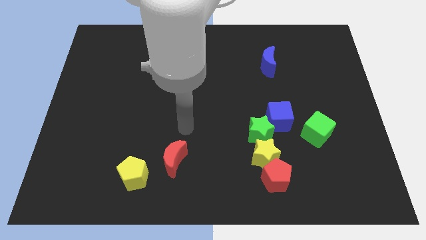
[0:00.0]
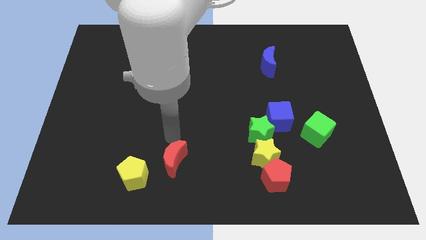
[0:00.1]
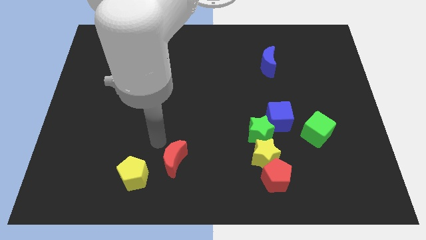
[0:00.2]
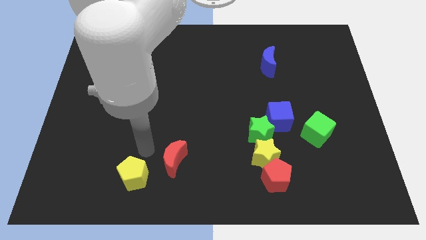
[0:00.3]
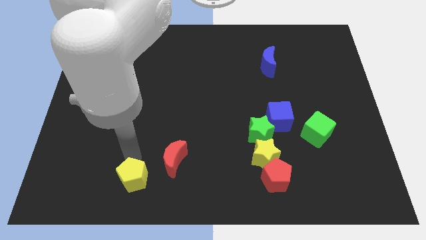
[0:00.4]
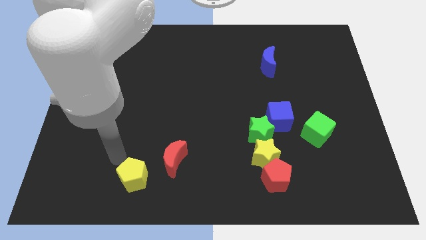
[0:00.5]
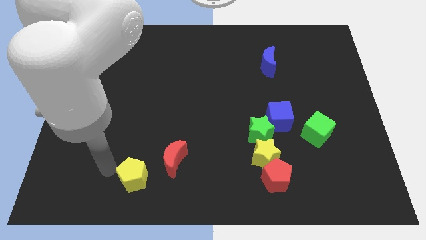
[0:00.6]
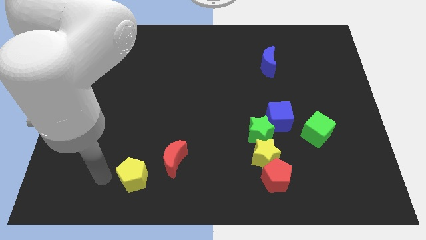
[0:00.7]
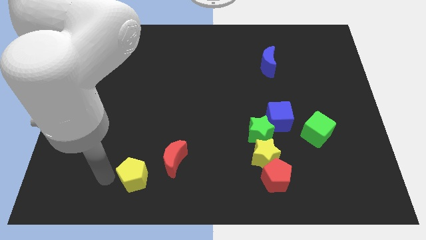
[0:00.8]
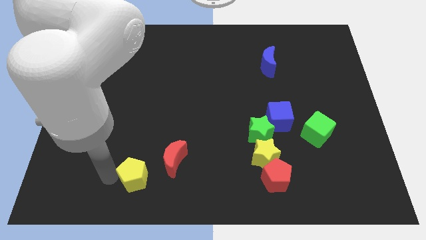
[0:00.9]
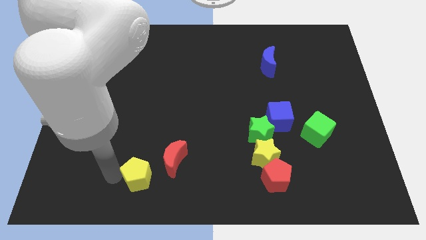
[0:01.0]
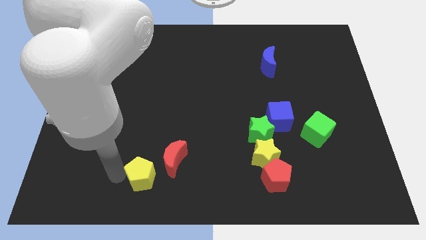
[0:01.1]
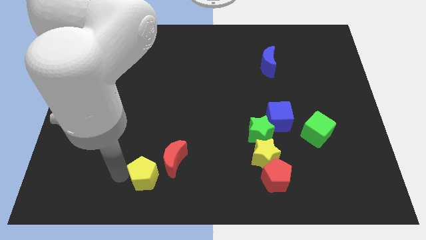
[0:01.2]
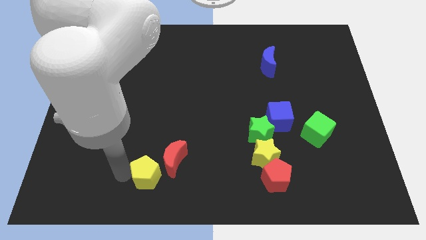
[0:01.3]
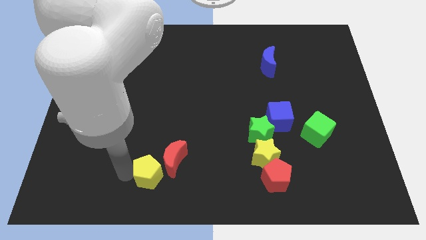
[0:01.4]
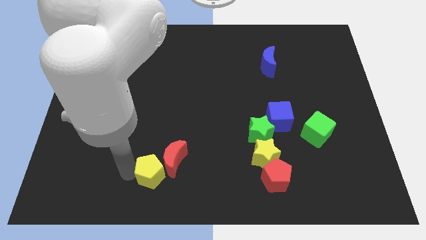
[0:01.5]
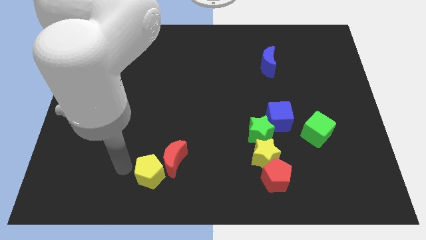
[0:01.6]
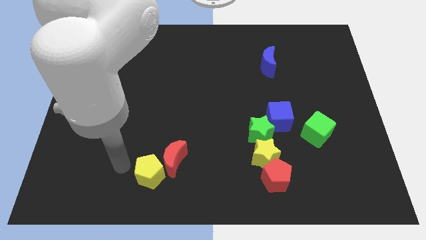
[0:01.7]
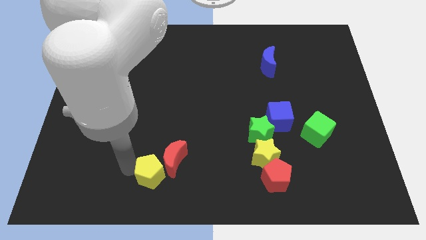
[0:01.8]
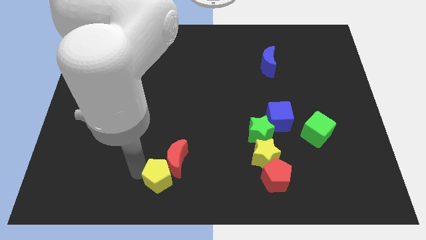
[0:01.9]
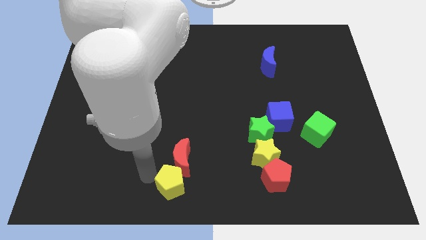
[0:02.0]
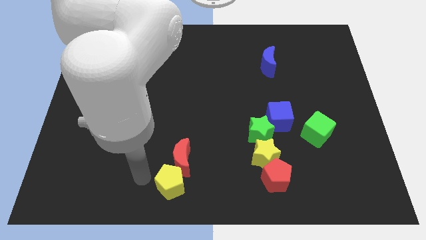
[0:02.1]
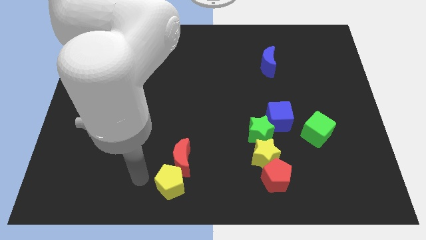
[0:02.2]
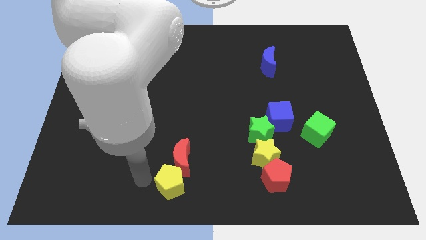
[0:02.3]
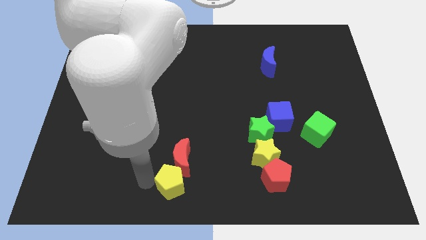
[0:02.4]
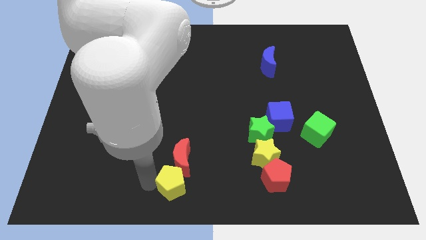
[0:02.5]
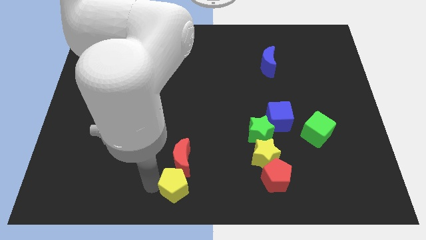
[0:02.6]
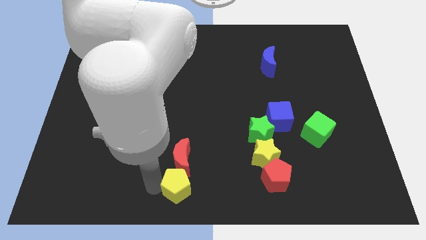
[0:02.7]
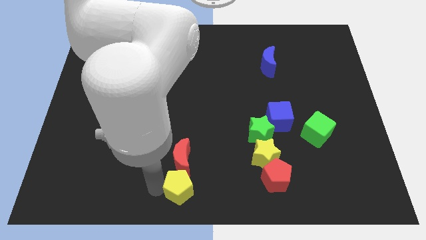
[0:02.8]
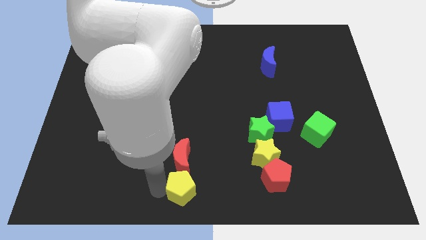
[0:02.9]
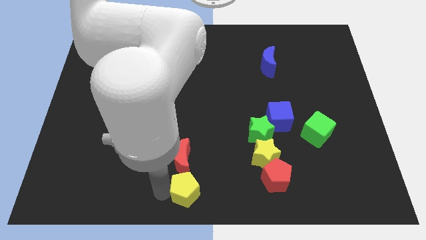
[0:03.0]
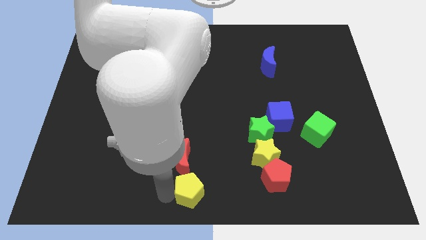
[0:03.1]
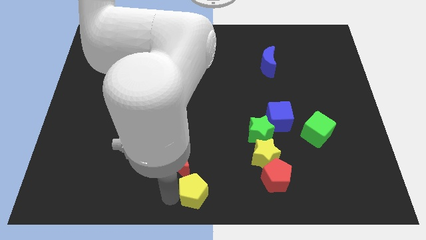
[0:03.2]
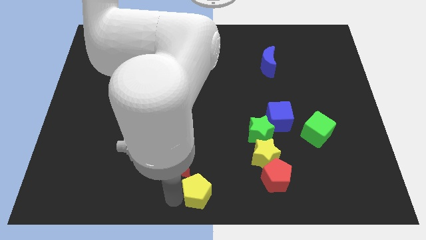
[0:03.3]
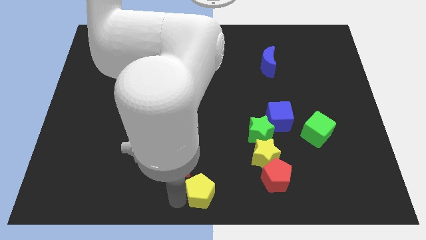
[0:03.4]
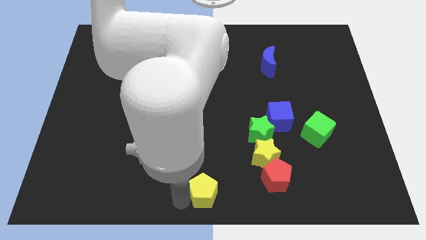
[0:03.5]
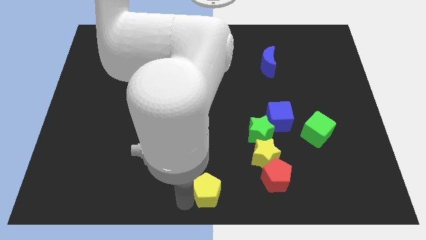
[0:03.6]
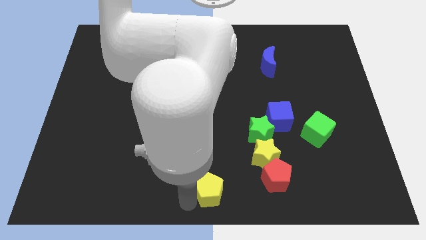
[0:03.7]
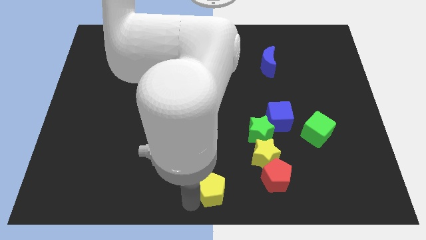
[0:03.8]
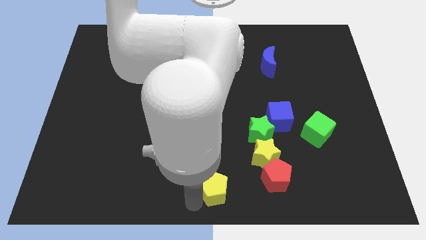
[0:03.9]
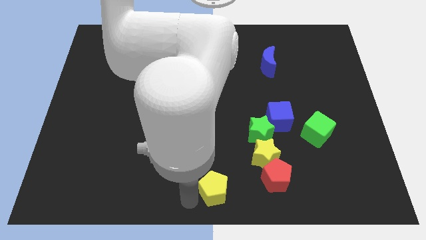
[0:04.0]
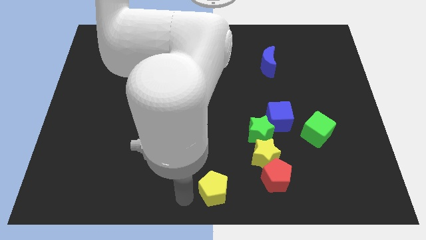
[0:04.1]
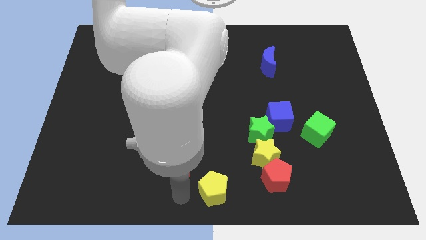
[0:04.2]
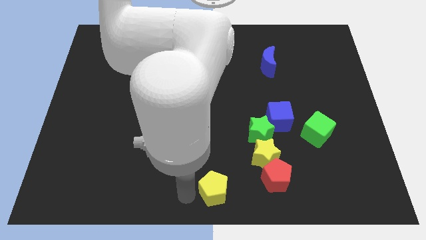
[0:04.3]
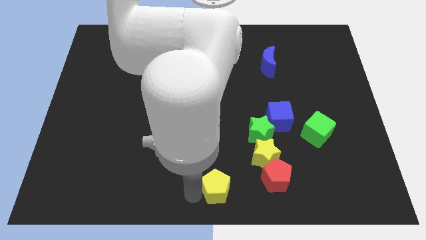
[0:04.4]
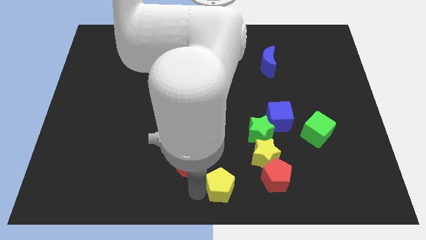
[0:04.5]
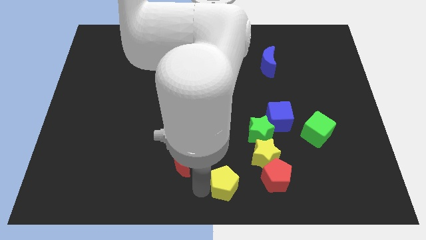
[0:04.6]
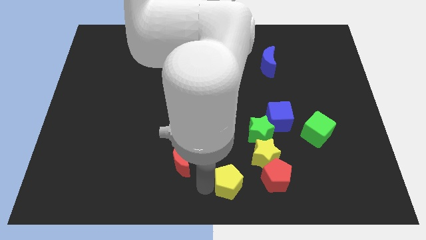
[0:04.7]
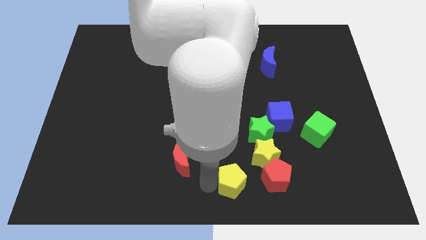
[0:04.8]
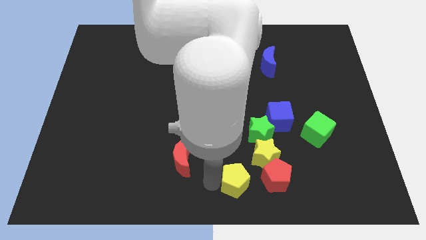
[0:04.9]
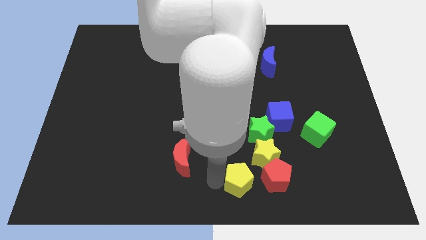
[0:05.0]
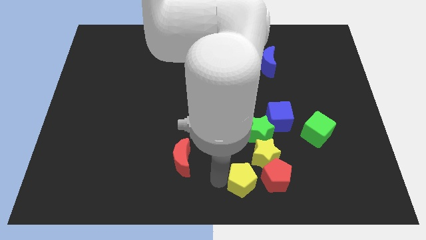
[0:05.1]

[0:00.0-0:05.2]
push the yellow pentagon to the bottom of the green star

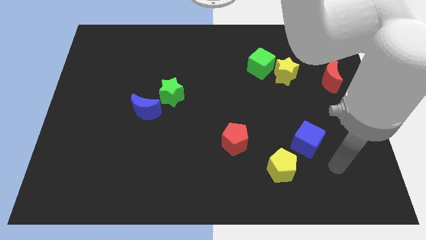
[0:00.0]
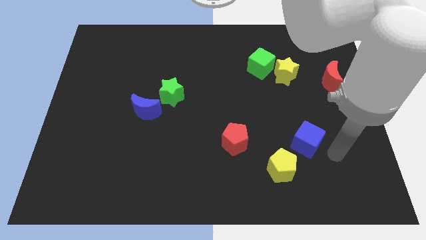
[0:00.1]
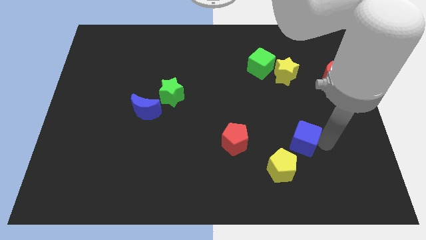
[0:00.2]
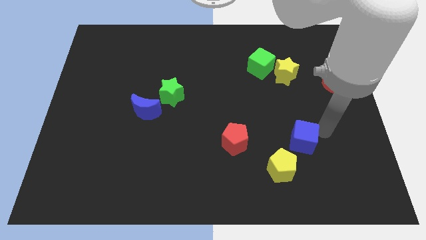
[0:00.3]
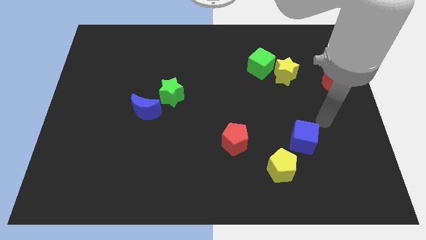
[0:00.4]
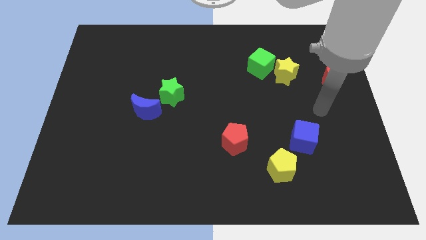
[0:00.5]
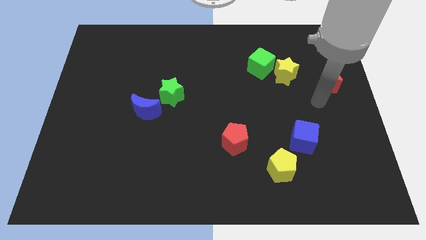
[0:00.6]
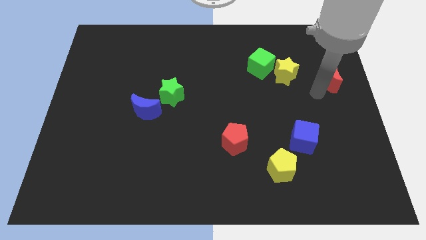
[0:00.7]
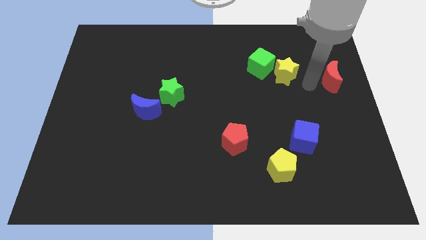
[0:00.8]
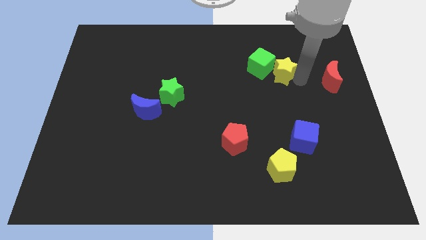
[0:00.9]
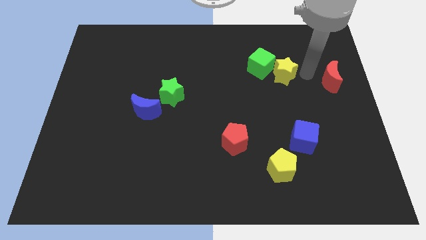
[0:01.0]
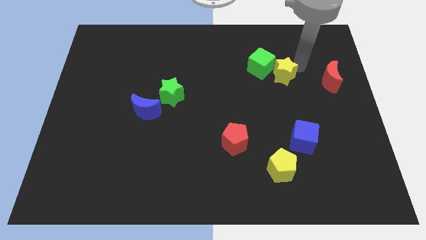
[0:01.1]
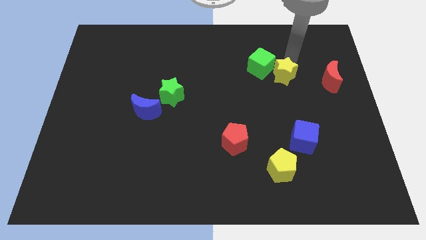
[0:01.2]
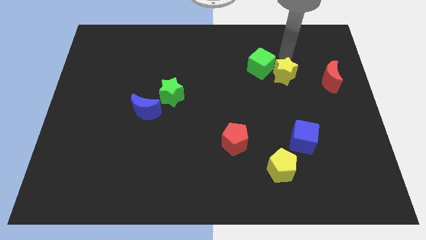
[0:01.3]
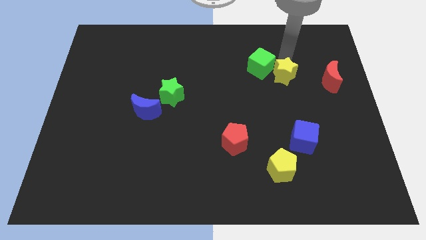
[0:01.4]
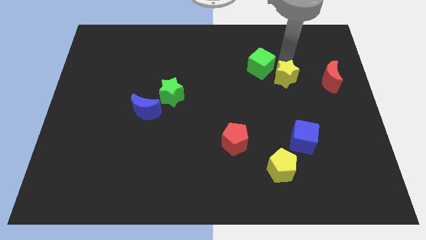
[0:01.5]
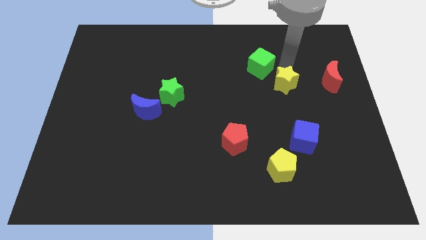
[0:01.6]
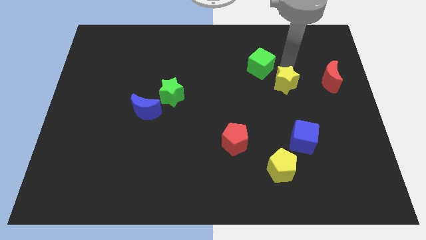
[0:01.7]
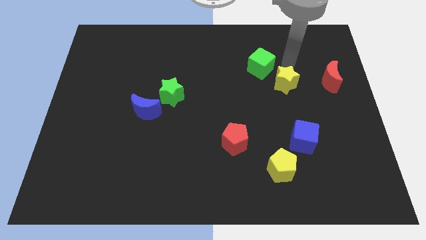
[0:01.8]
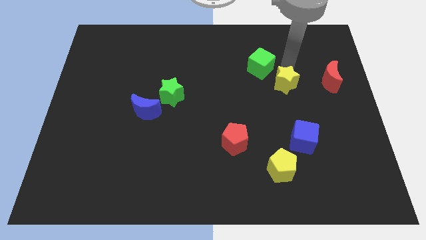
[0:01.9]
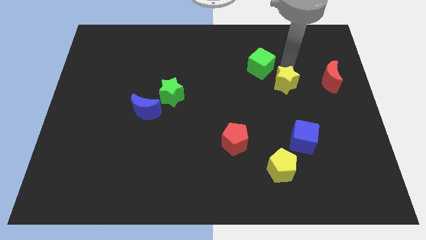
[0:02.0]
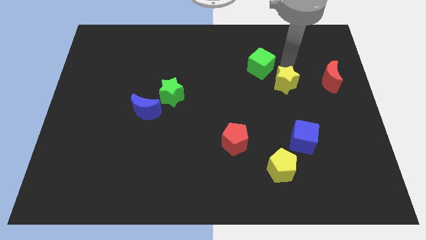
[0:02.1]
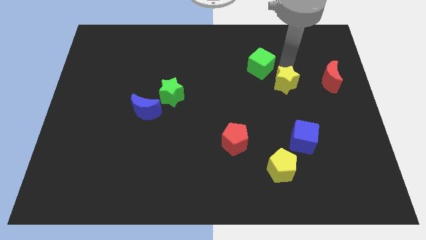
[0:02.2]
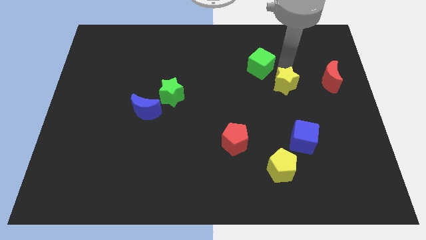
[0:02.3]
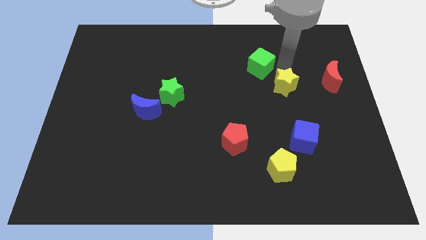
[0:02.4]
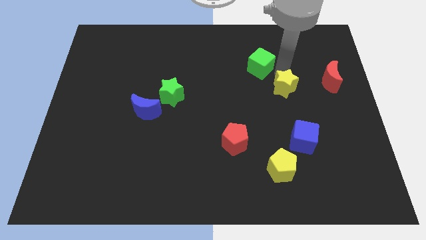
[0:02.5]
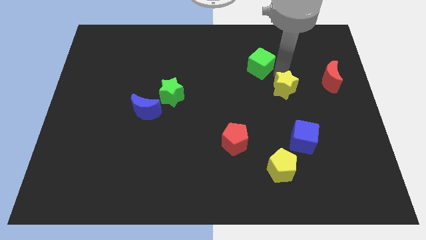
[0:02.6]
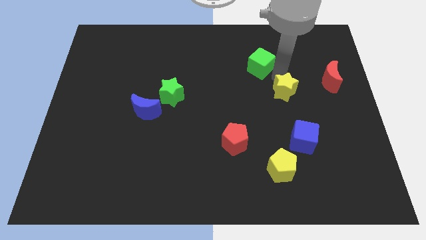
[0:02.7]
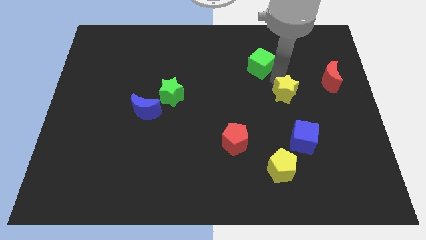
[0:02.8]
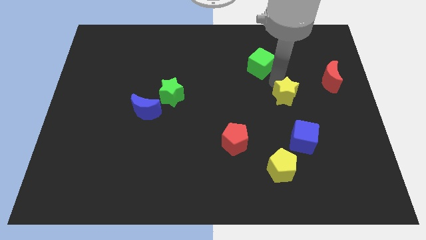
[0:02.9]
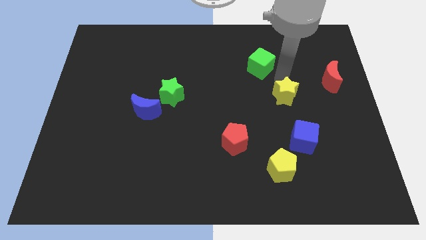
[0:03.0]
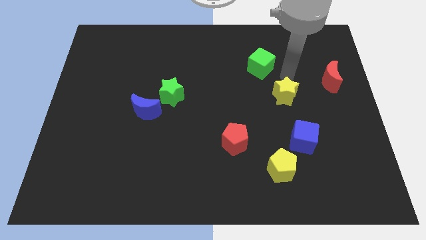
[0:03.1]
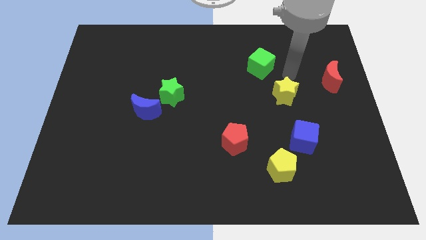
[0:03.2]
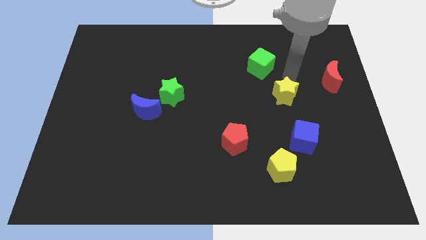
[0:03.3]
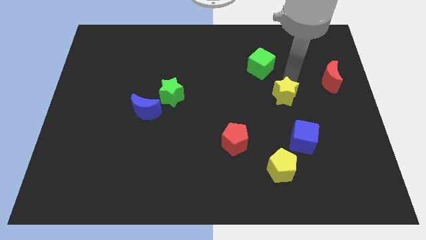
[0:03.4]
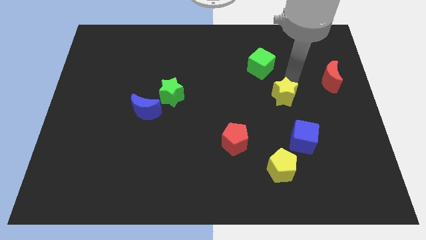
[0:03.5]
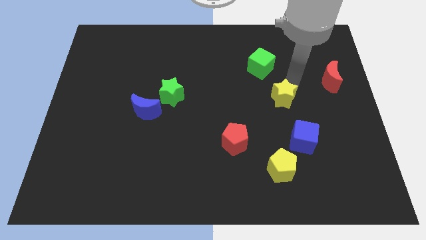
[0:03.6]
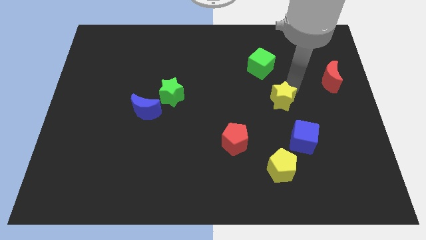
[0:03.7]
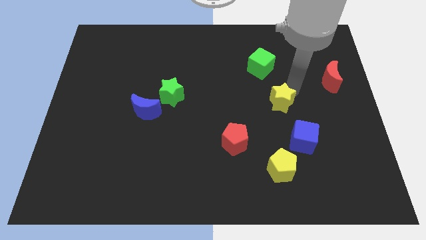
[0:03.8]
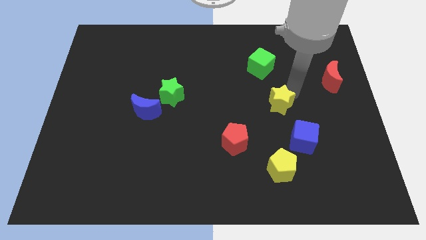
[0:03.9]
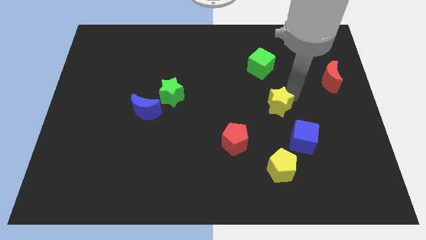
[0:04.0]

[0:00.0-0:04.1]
push the yellow star diagonally up and to the left of the blue cube
